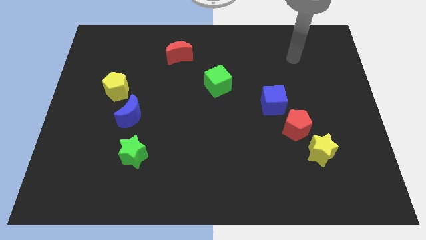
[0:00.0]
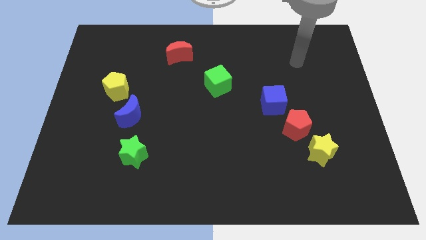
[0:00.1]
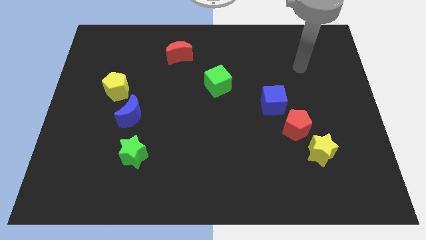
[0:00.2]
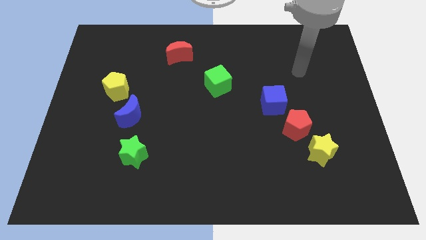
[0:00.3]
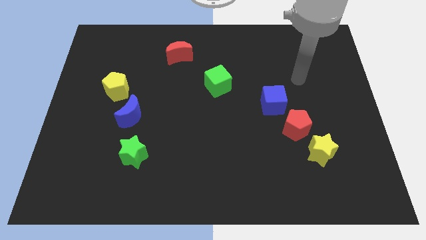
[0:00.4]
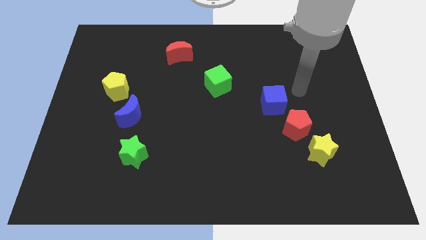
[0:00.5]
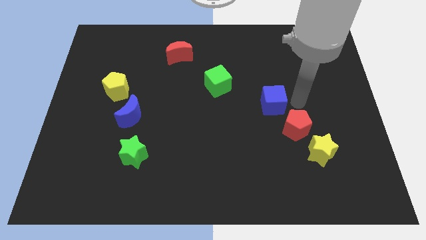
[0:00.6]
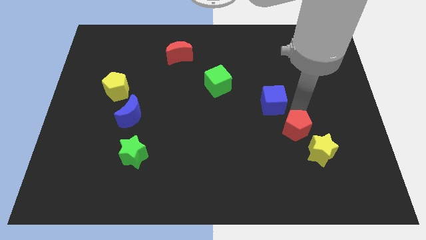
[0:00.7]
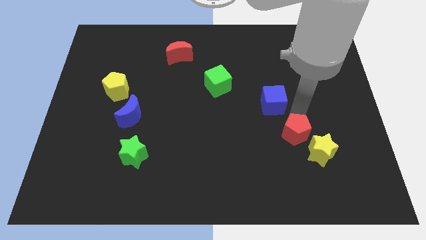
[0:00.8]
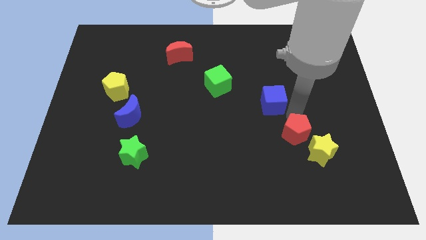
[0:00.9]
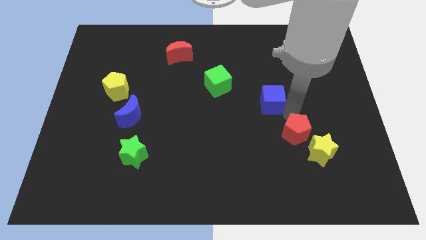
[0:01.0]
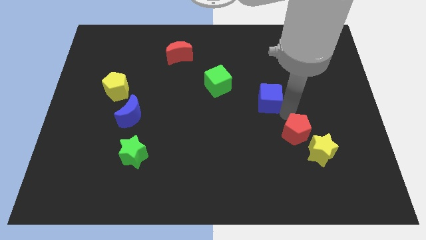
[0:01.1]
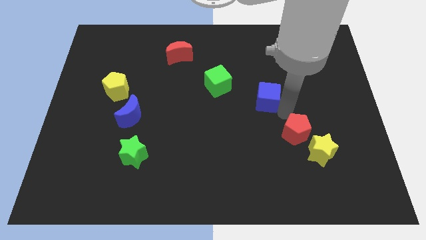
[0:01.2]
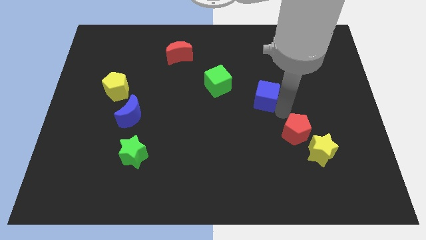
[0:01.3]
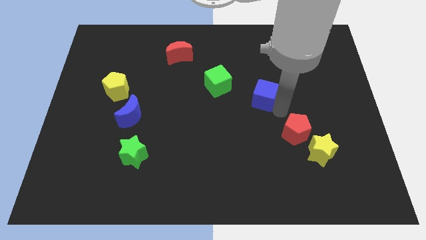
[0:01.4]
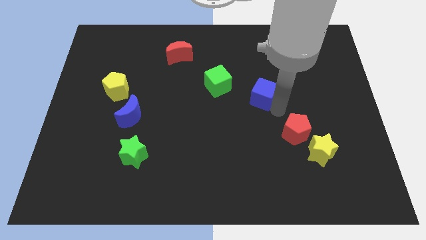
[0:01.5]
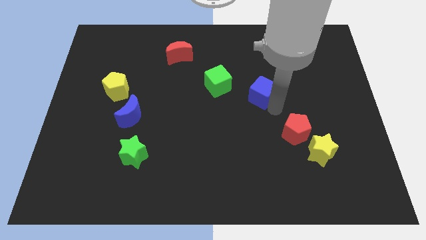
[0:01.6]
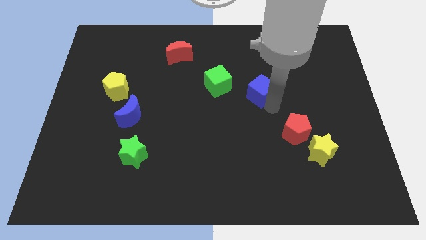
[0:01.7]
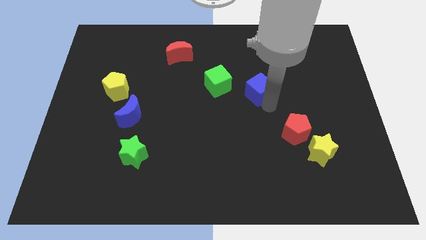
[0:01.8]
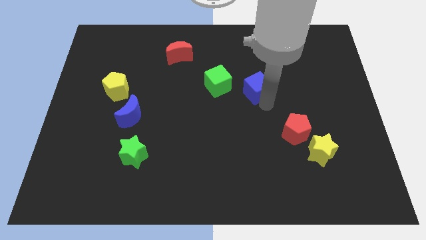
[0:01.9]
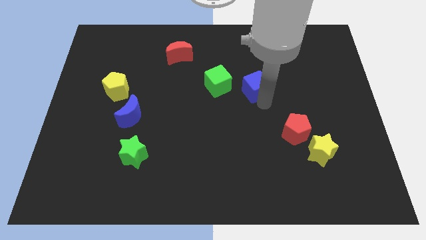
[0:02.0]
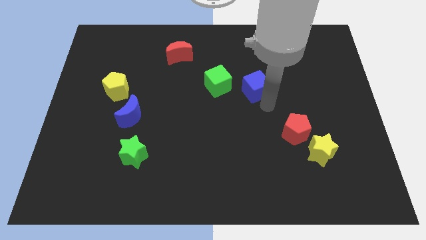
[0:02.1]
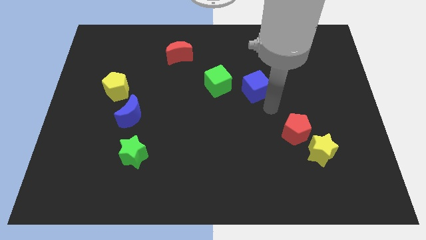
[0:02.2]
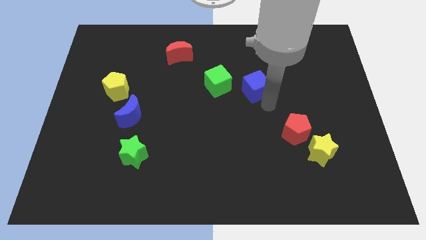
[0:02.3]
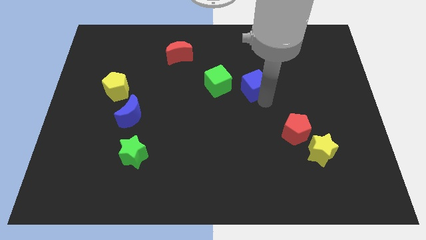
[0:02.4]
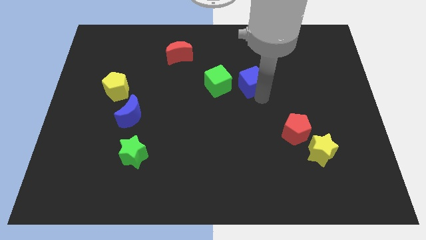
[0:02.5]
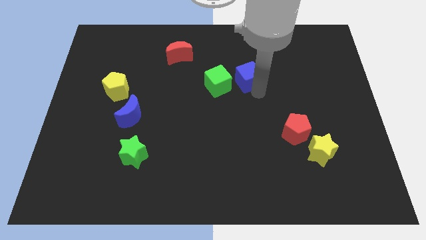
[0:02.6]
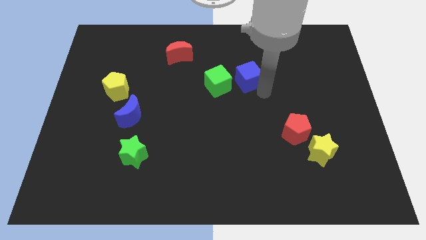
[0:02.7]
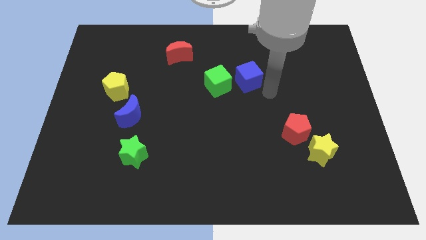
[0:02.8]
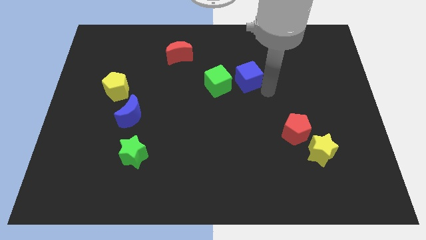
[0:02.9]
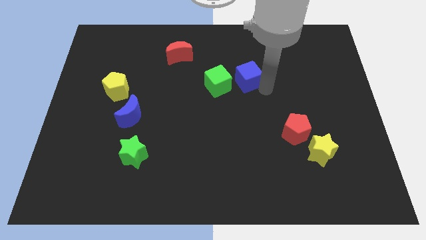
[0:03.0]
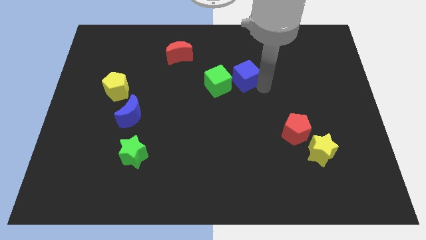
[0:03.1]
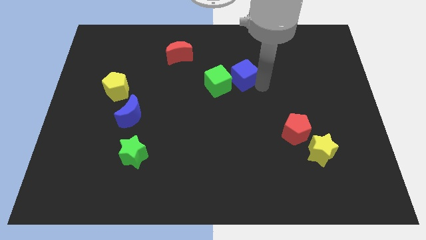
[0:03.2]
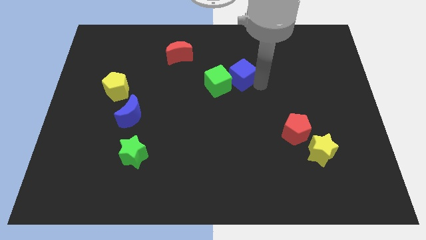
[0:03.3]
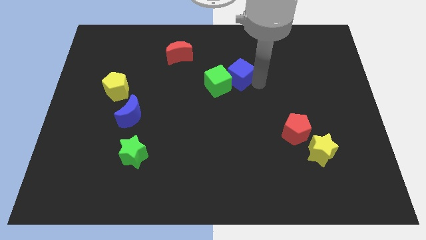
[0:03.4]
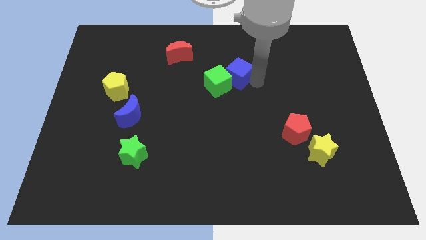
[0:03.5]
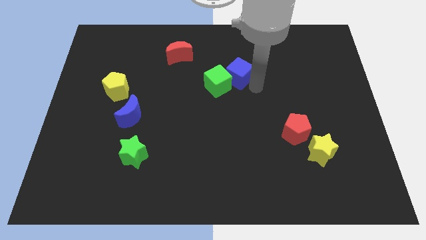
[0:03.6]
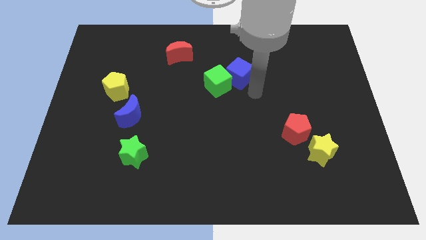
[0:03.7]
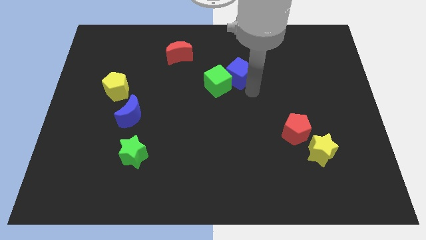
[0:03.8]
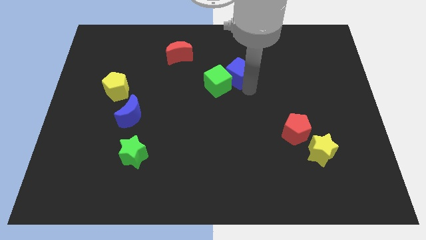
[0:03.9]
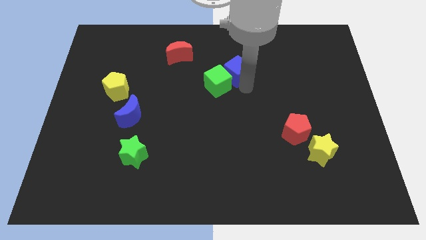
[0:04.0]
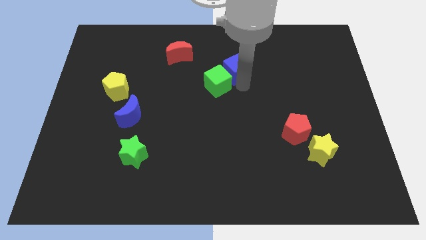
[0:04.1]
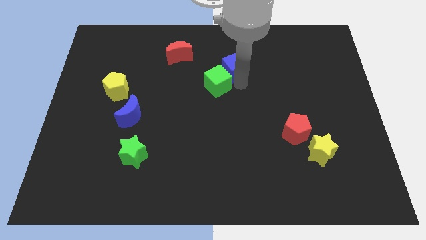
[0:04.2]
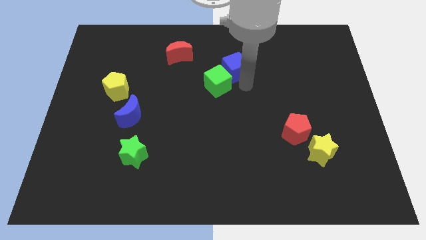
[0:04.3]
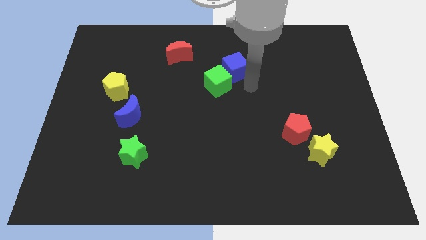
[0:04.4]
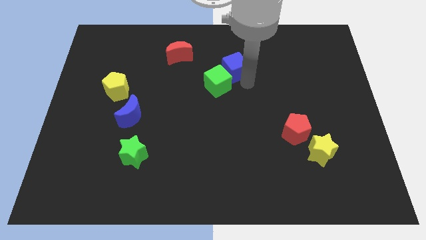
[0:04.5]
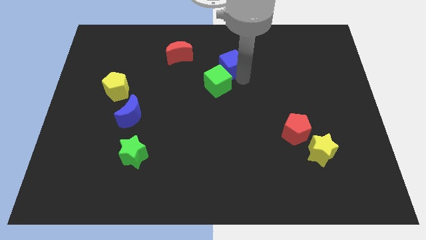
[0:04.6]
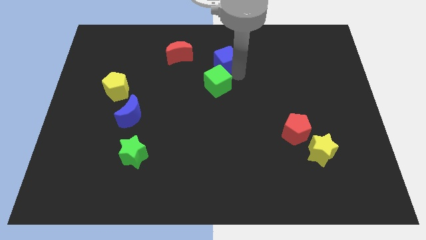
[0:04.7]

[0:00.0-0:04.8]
move the blue cube just right of the red moon

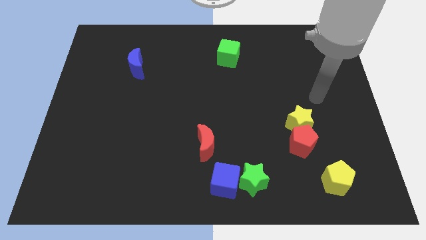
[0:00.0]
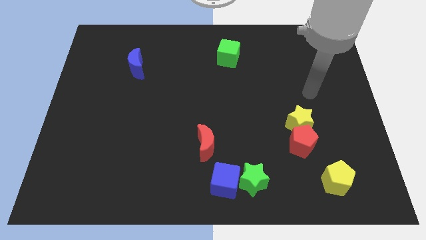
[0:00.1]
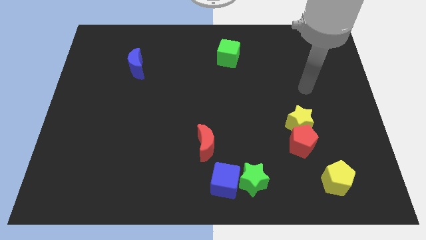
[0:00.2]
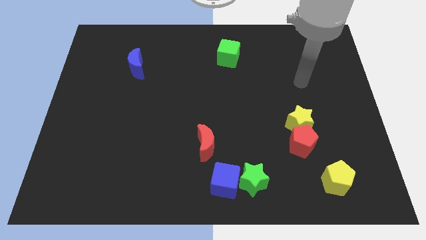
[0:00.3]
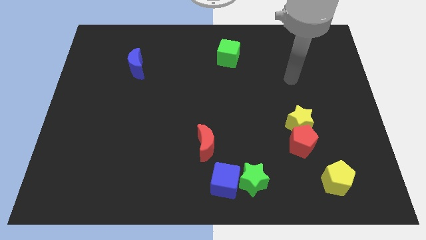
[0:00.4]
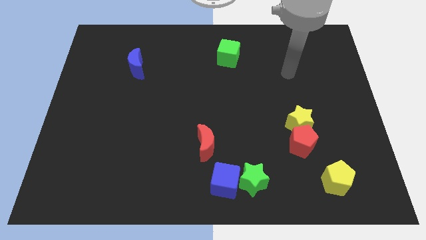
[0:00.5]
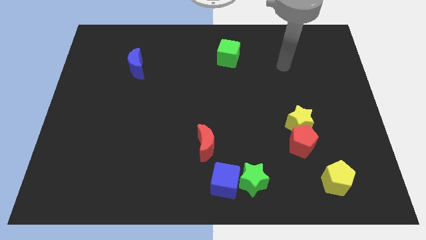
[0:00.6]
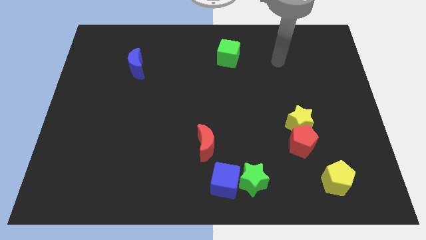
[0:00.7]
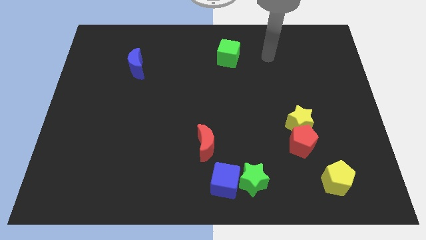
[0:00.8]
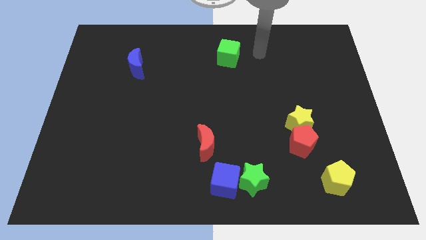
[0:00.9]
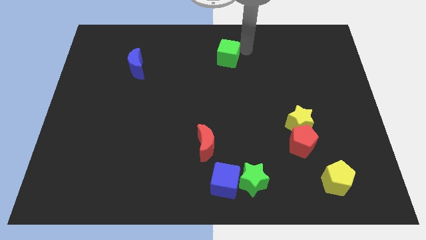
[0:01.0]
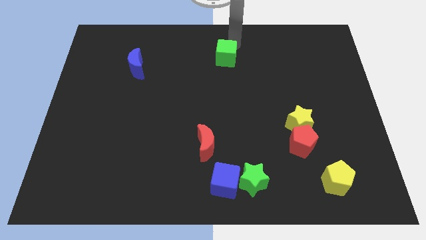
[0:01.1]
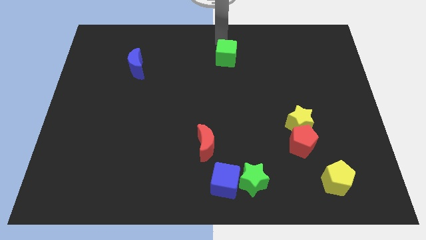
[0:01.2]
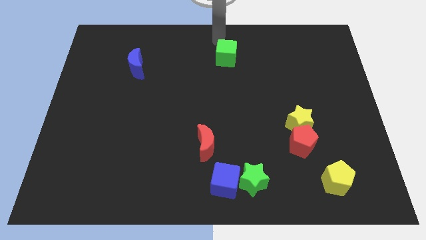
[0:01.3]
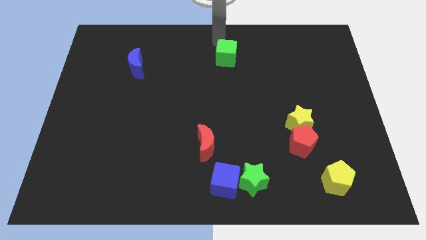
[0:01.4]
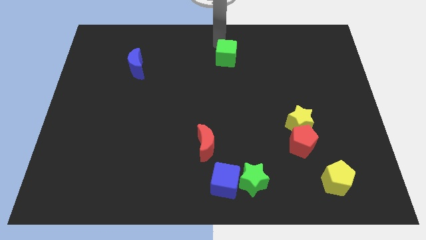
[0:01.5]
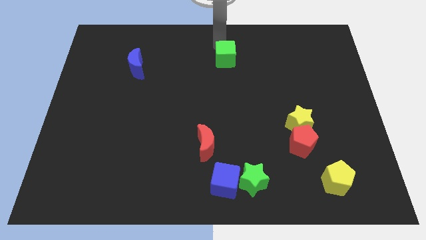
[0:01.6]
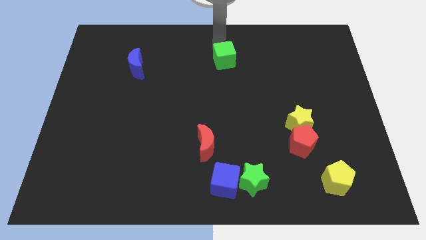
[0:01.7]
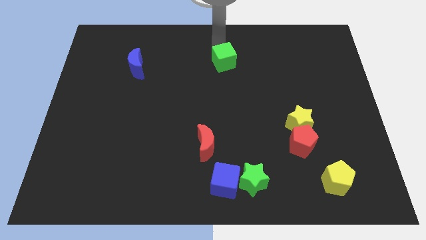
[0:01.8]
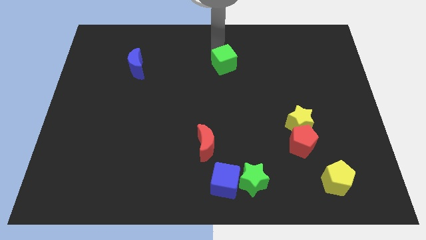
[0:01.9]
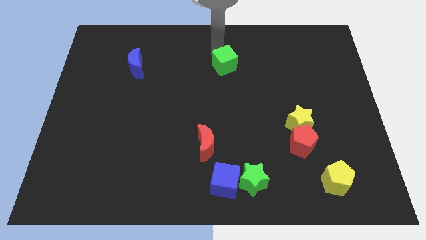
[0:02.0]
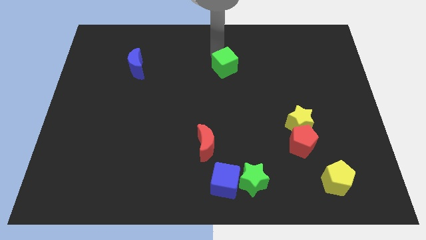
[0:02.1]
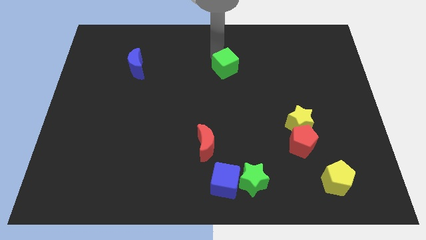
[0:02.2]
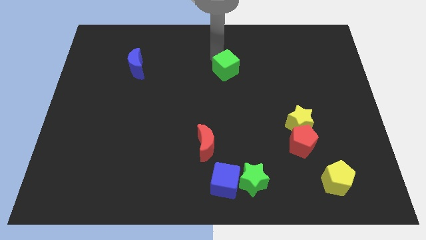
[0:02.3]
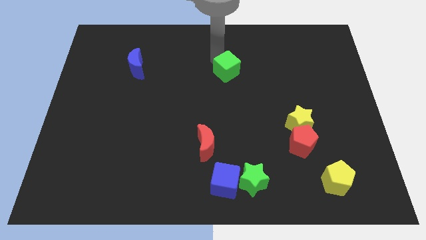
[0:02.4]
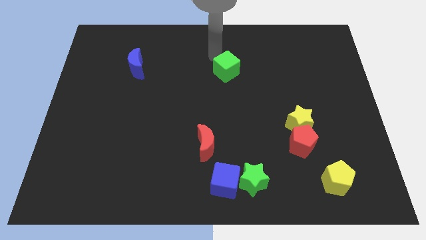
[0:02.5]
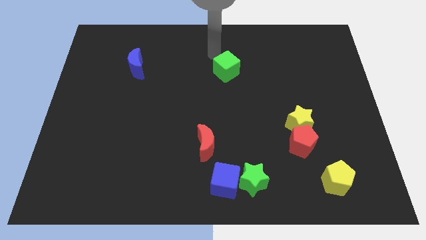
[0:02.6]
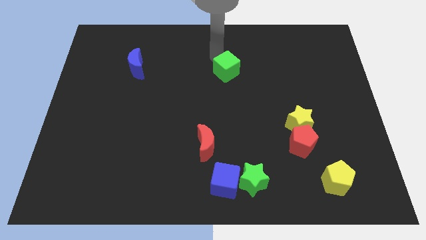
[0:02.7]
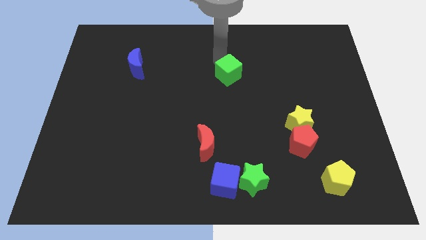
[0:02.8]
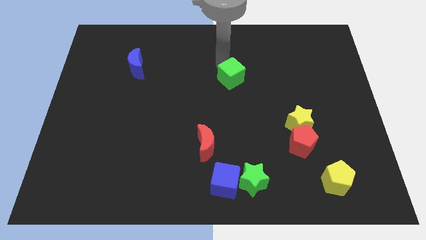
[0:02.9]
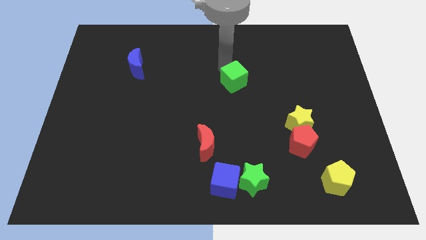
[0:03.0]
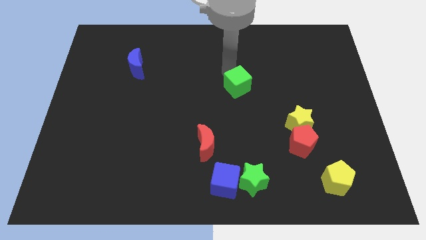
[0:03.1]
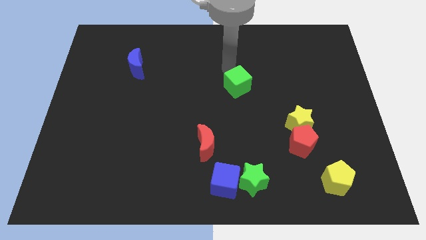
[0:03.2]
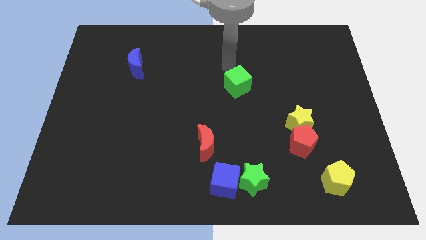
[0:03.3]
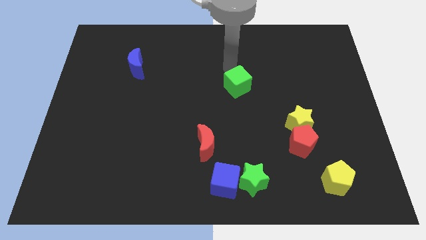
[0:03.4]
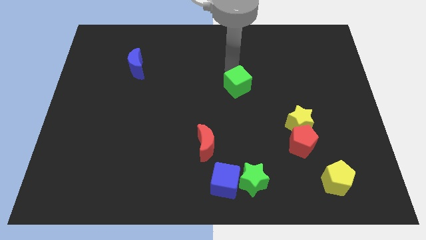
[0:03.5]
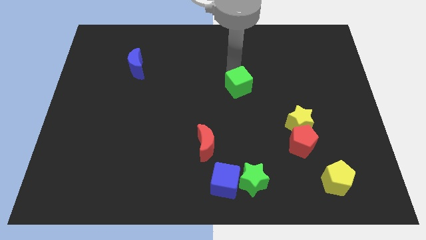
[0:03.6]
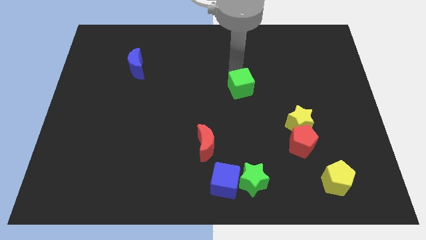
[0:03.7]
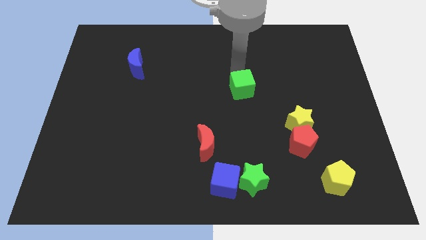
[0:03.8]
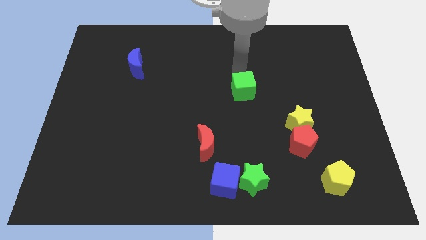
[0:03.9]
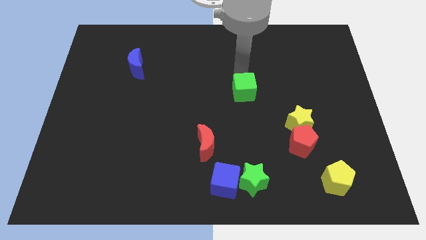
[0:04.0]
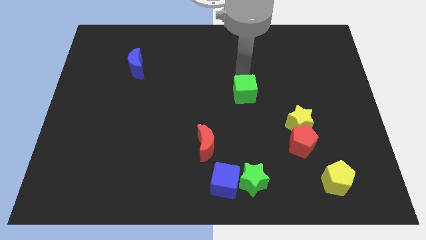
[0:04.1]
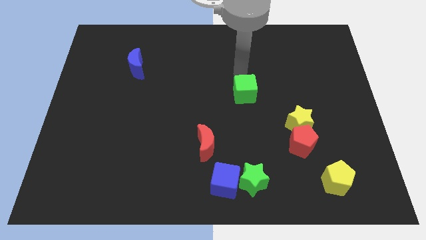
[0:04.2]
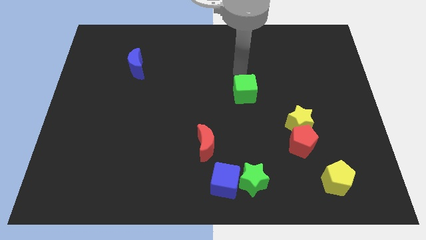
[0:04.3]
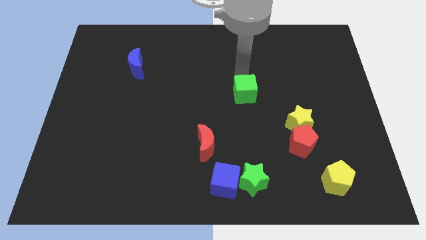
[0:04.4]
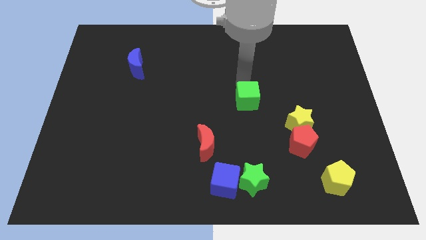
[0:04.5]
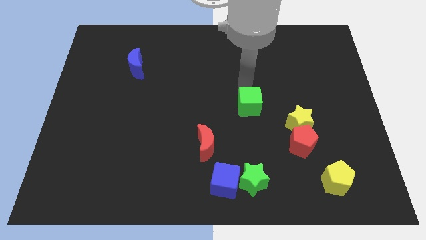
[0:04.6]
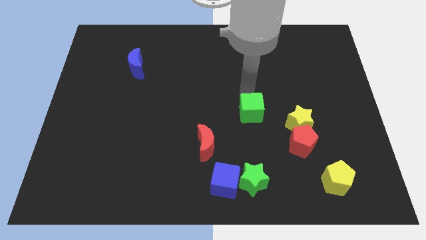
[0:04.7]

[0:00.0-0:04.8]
move the green cube to the left side of the yellow star
